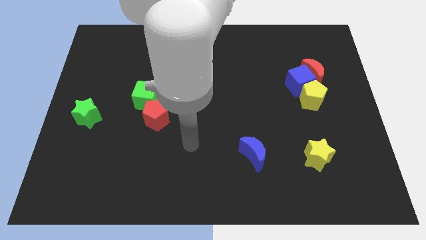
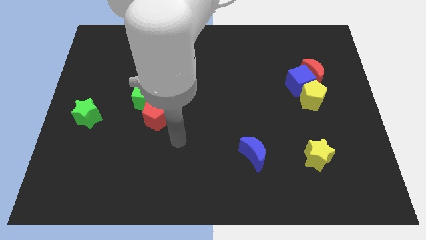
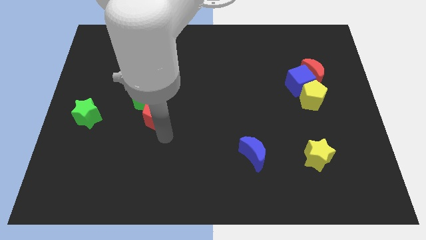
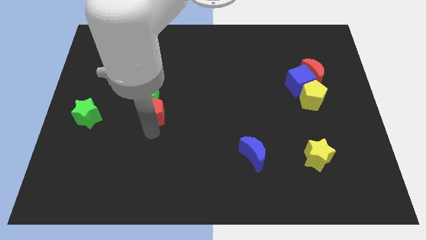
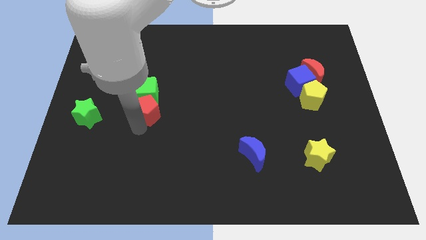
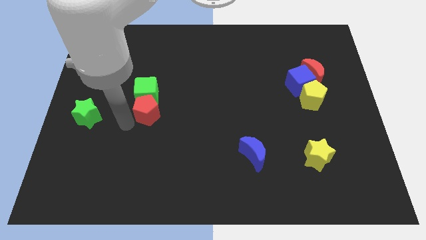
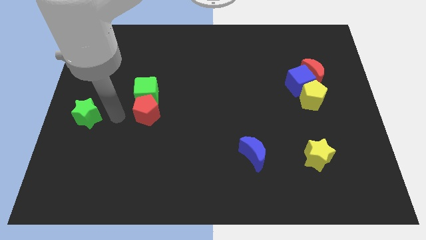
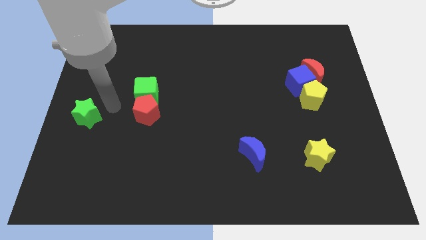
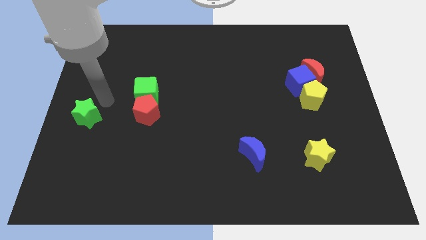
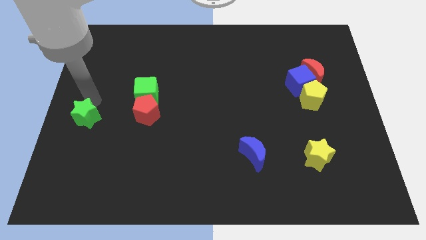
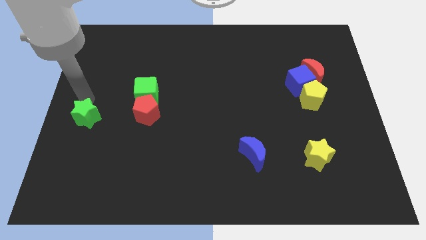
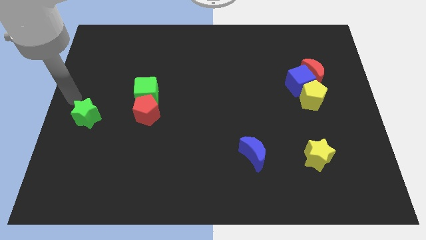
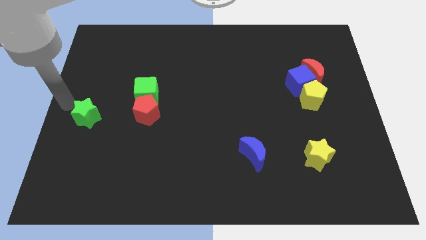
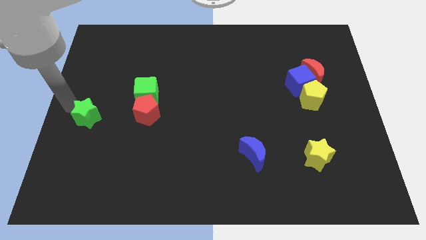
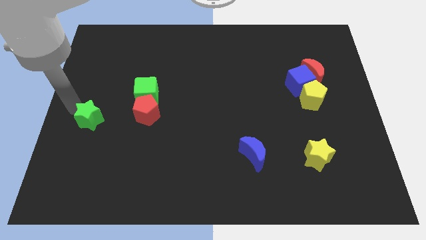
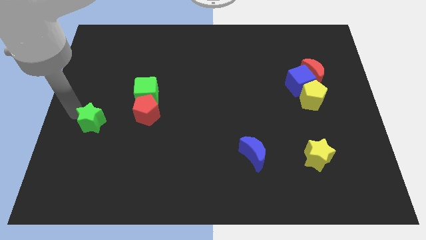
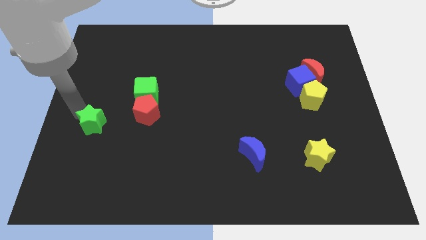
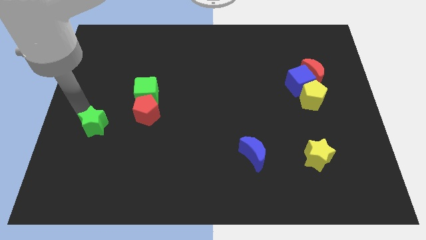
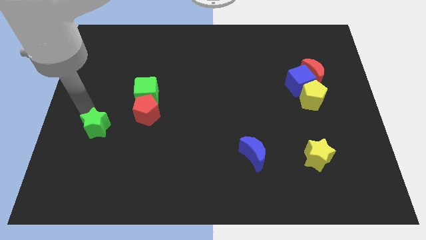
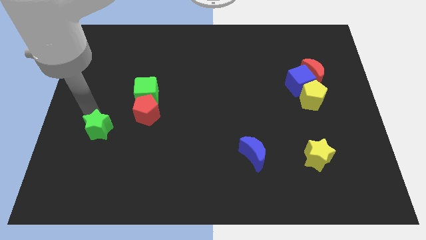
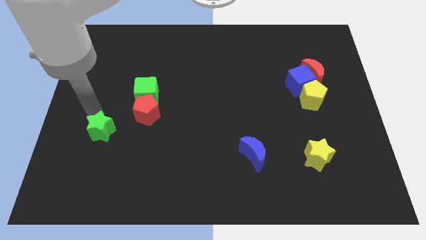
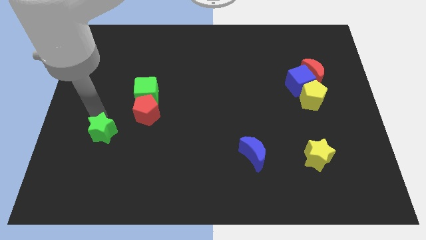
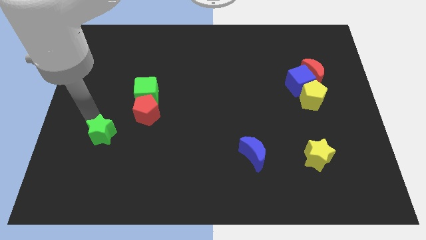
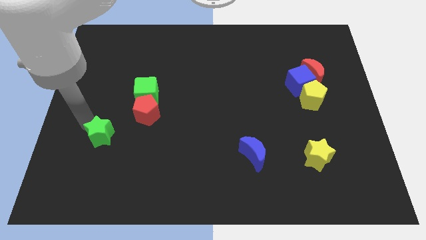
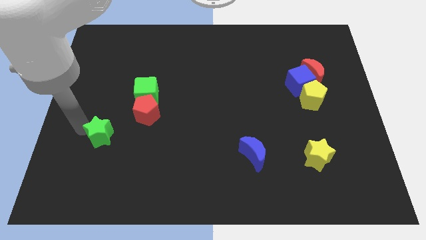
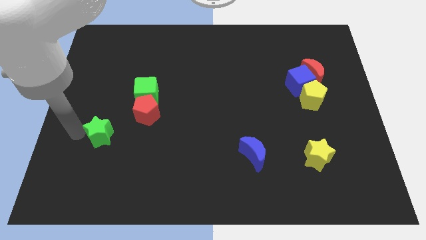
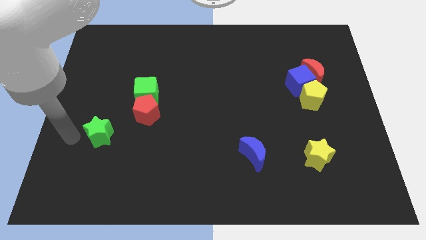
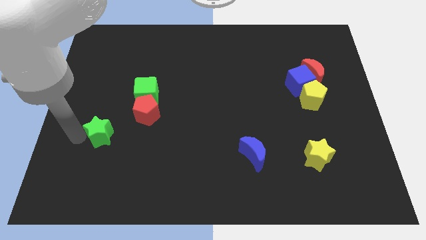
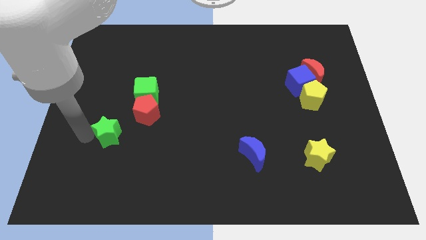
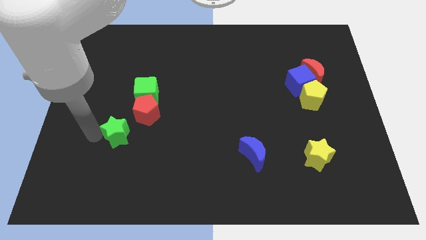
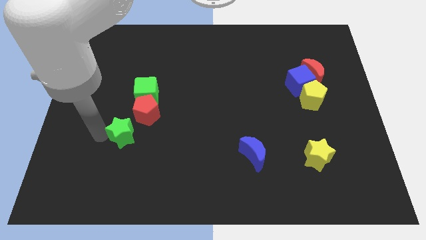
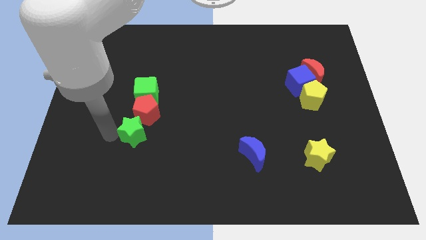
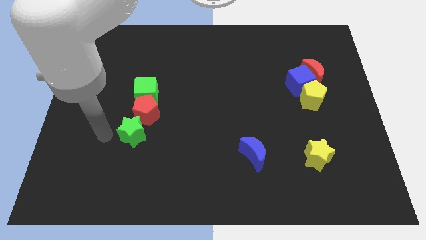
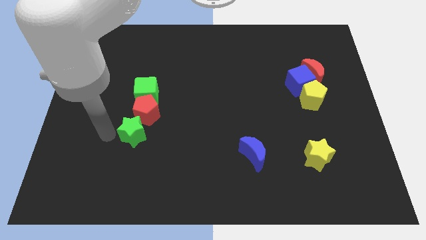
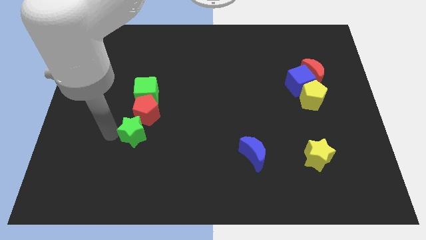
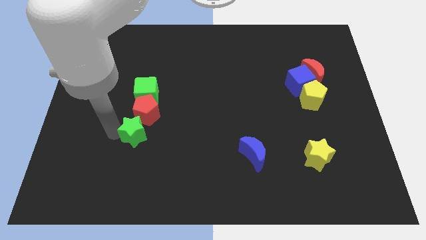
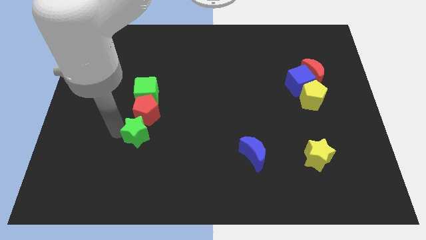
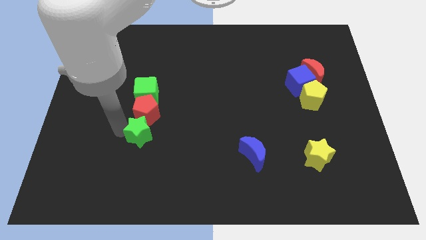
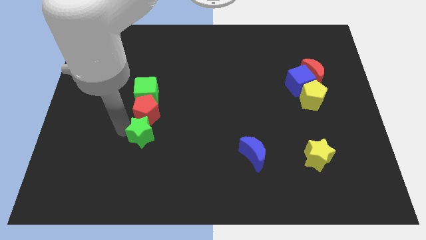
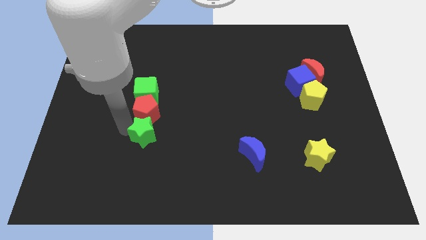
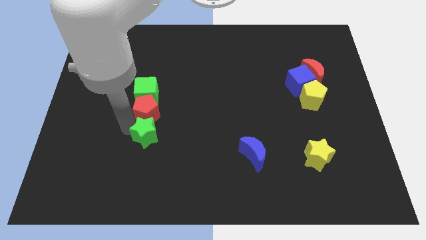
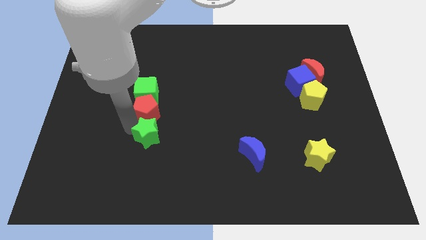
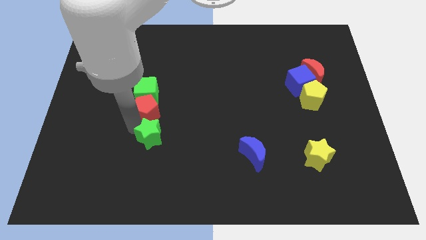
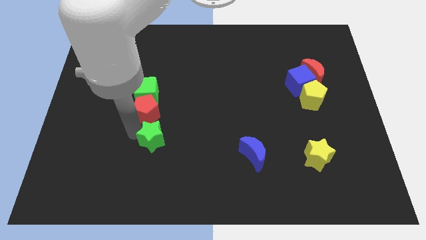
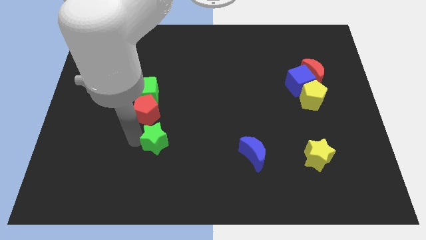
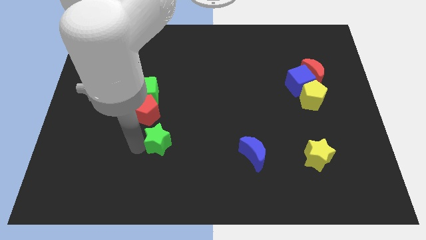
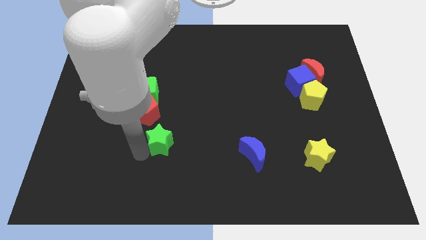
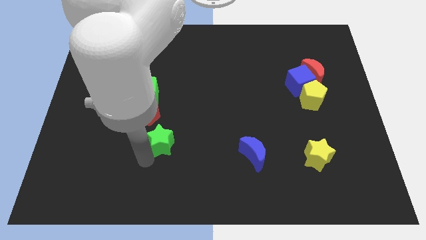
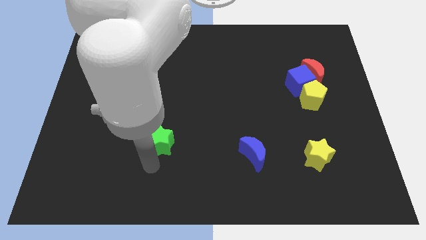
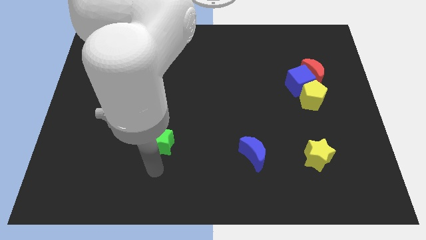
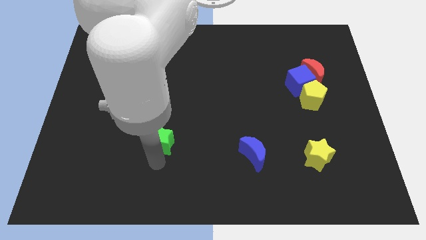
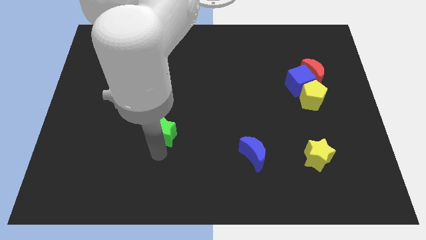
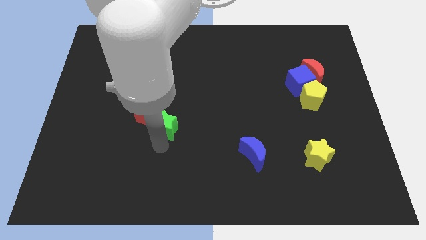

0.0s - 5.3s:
move the green star to the bottom right of the green cube

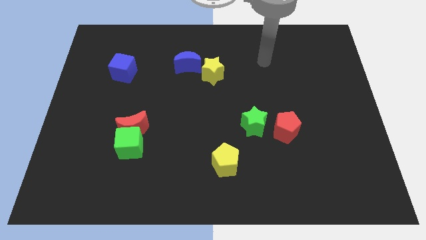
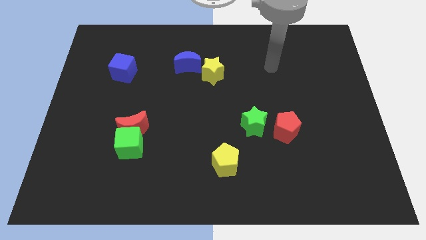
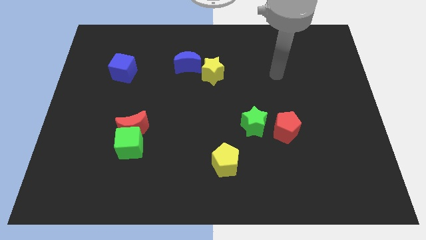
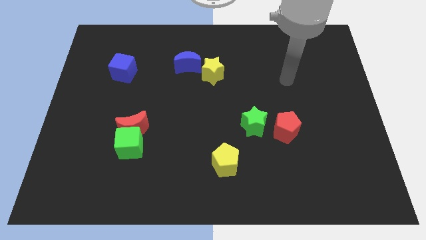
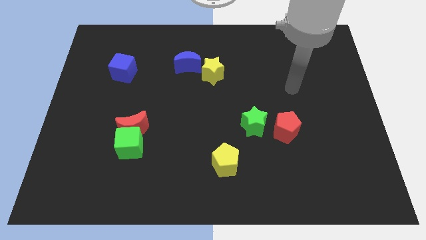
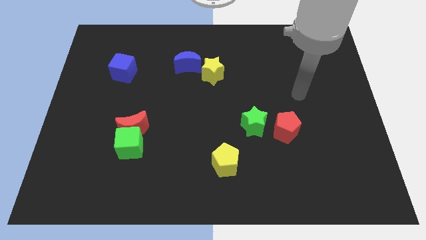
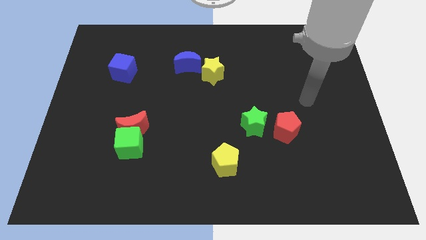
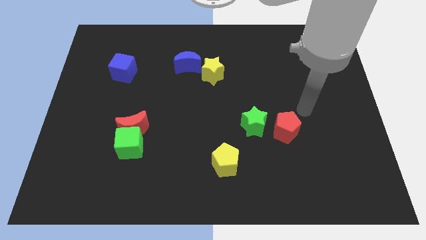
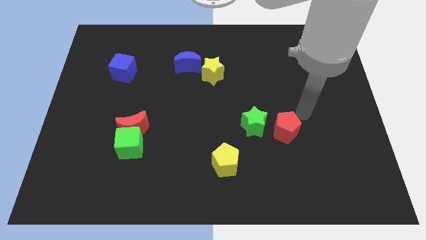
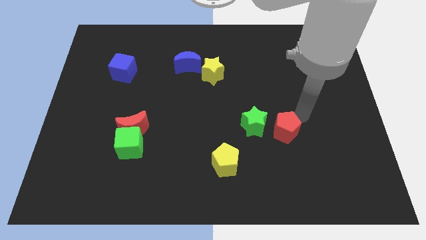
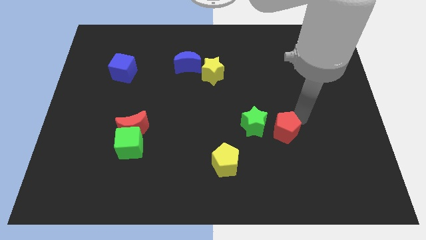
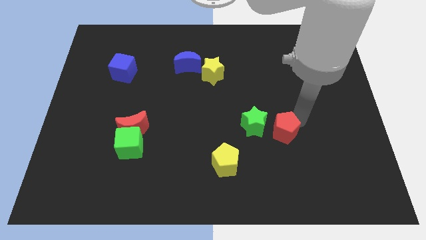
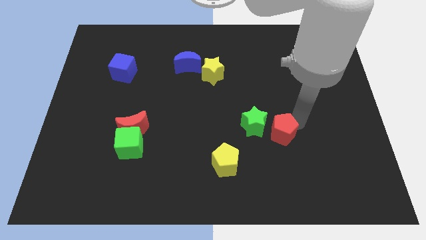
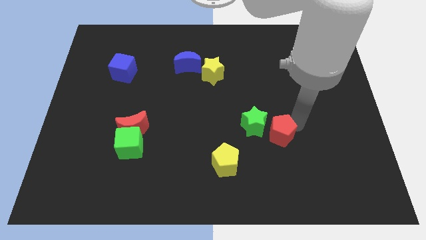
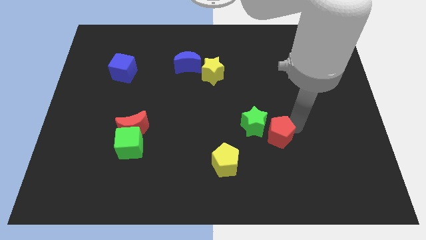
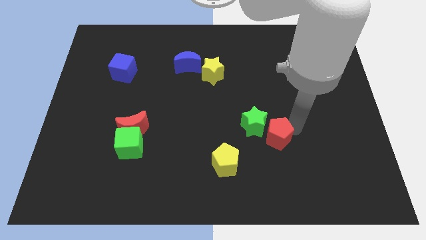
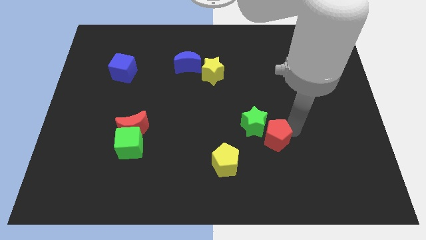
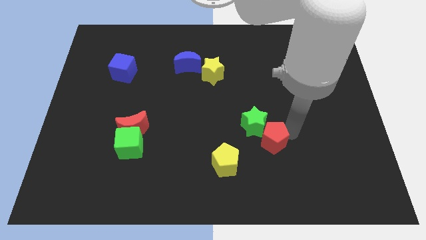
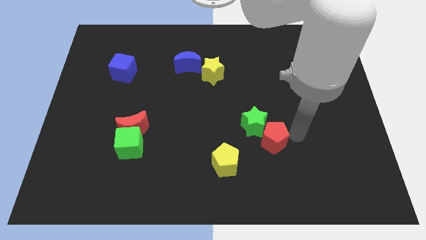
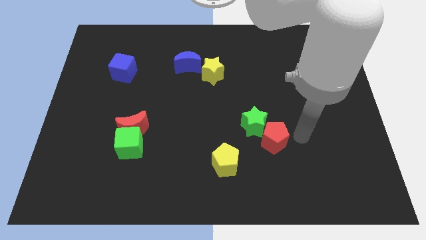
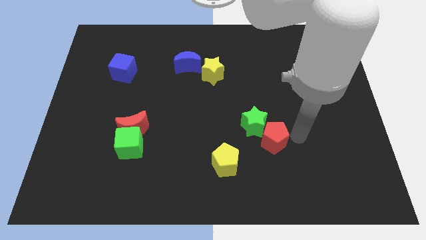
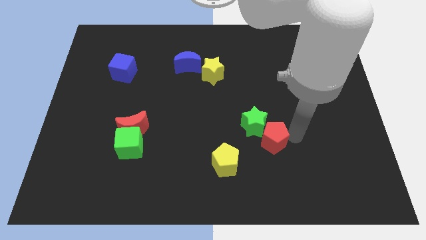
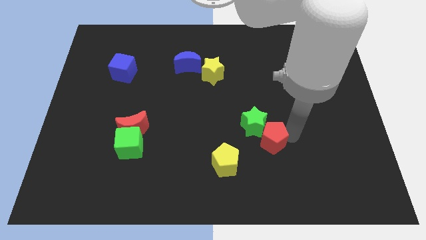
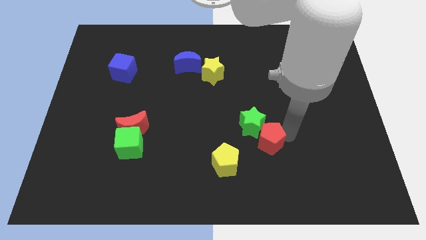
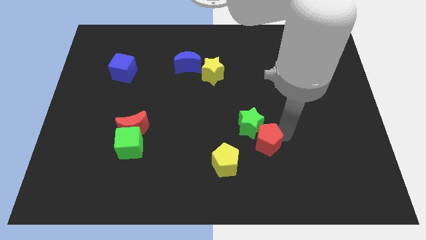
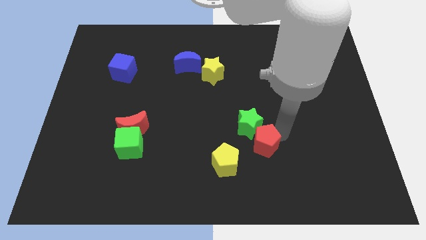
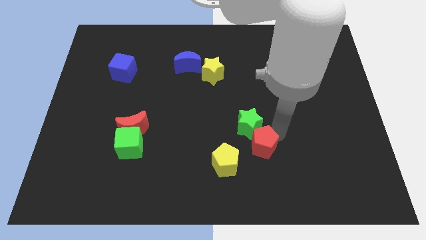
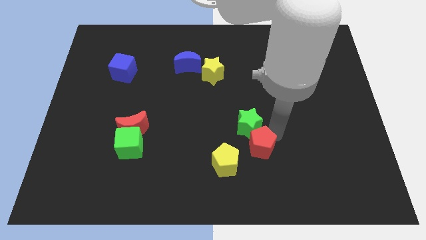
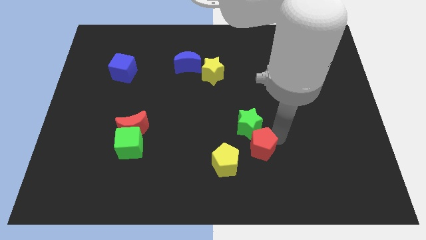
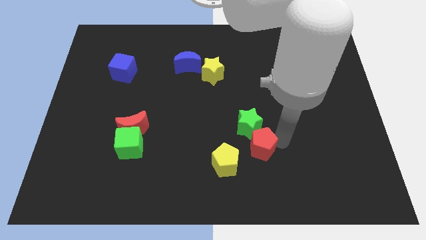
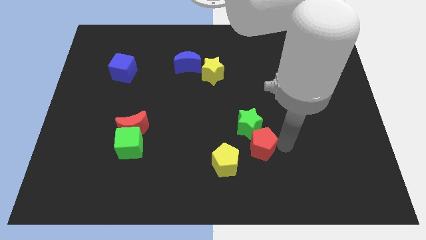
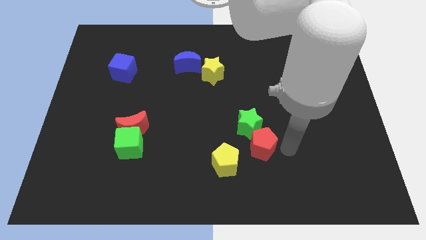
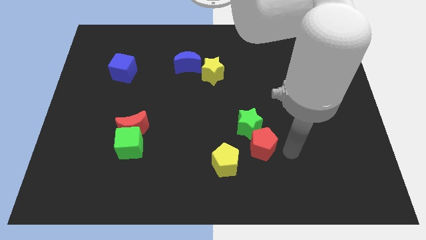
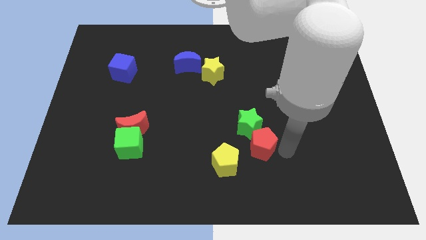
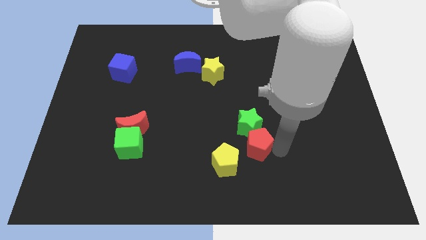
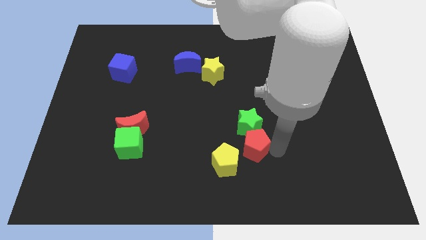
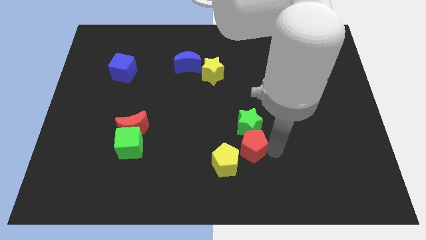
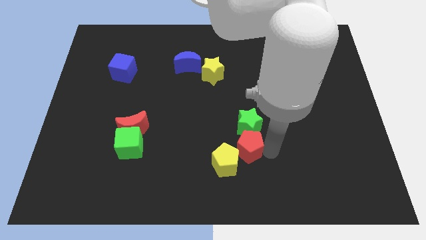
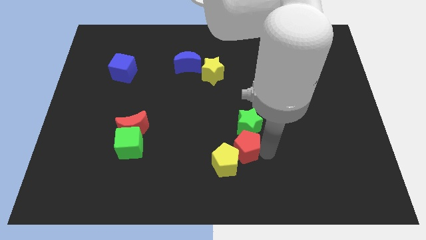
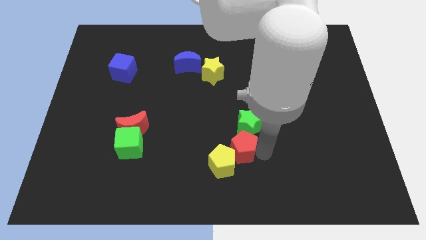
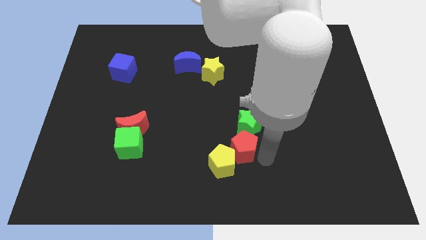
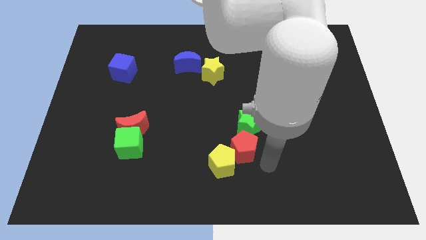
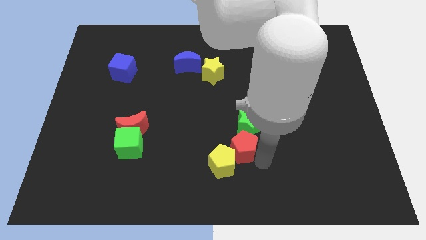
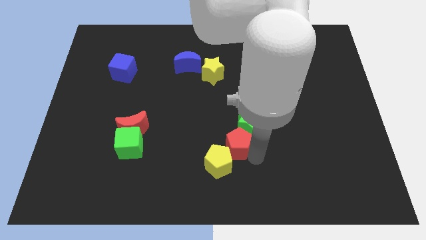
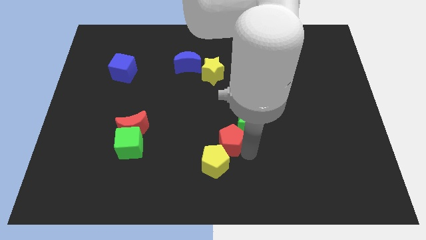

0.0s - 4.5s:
slide the red pentagon to the left of the green star
